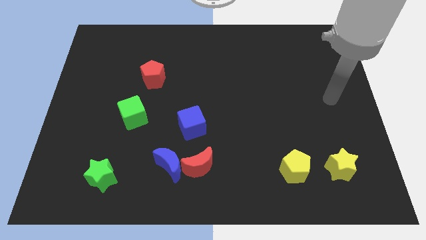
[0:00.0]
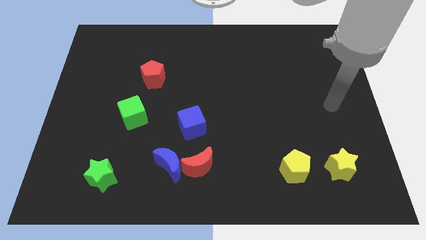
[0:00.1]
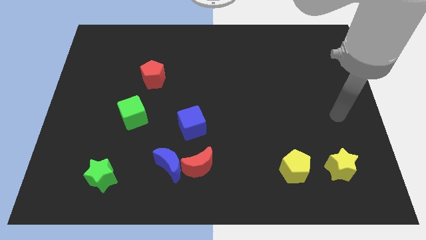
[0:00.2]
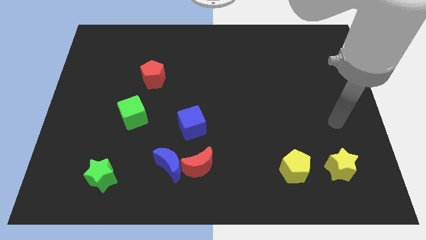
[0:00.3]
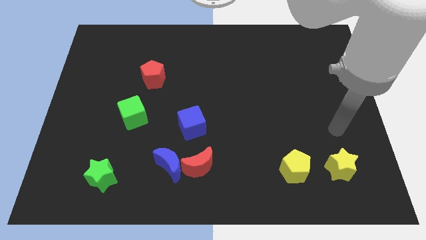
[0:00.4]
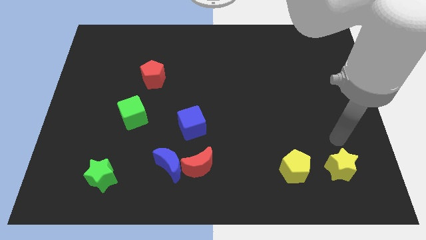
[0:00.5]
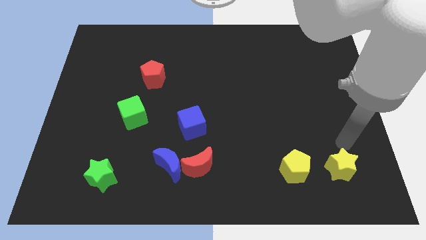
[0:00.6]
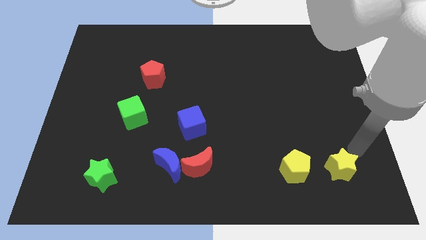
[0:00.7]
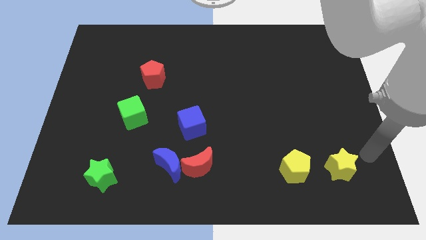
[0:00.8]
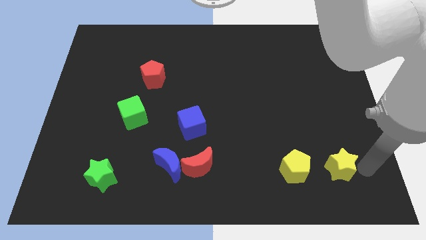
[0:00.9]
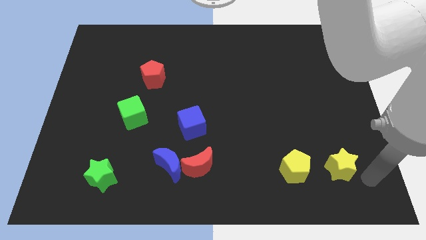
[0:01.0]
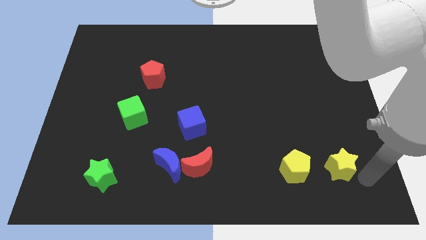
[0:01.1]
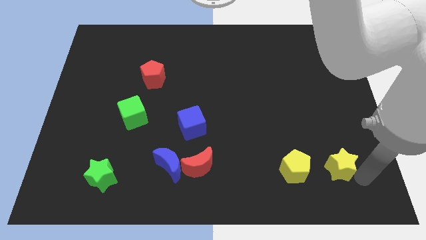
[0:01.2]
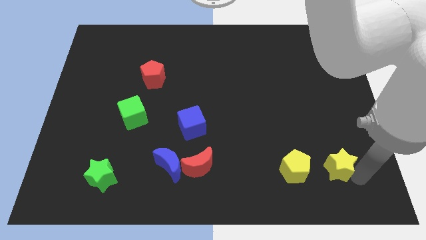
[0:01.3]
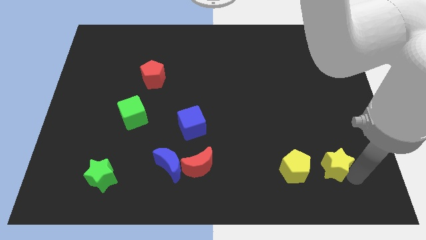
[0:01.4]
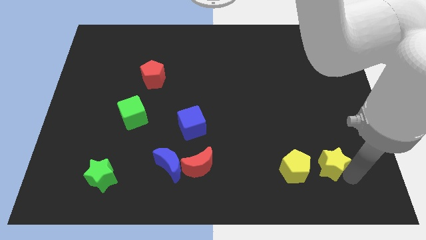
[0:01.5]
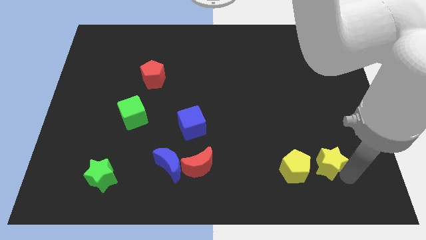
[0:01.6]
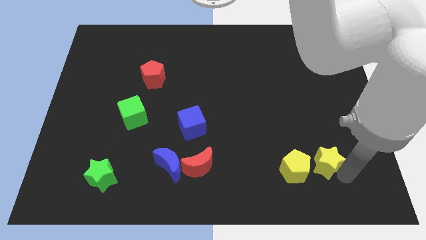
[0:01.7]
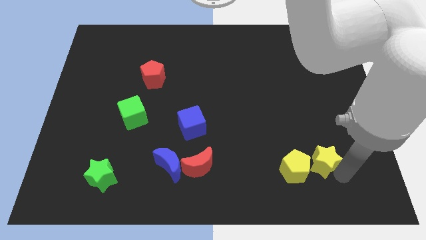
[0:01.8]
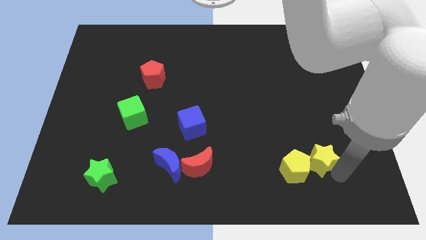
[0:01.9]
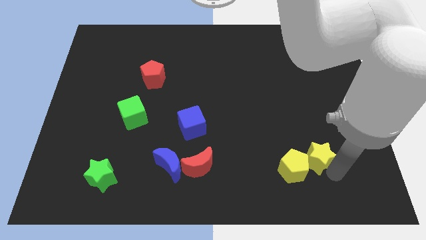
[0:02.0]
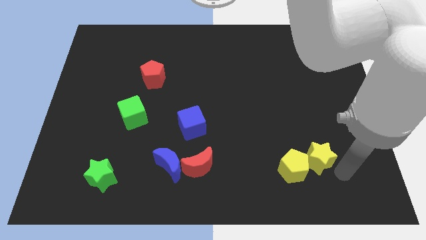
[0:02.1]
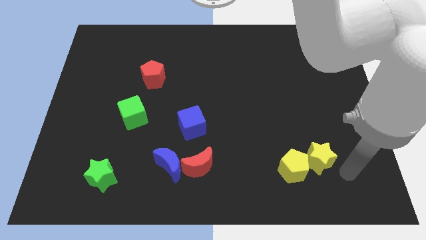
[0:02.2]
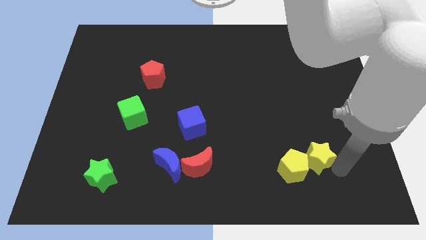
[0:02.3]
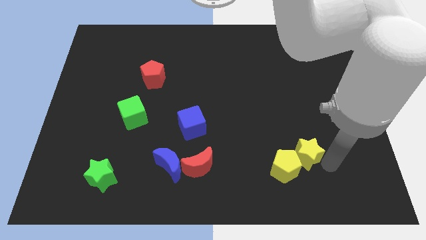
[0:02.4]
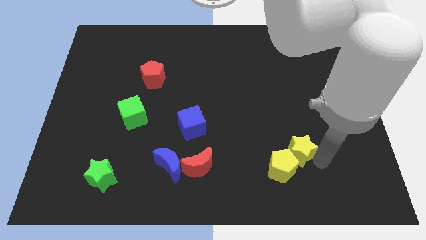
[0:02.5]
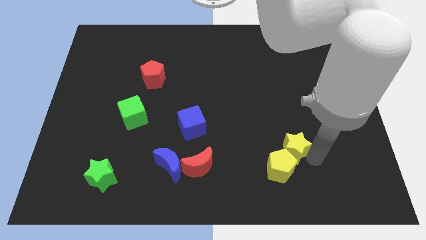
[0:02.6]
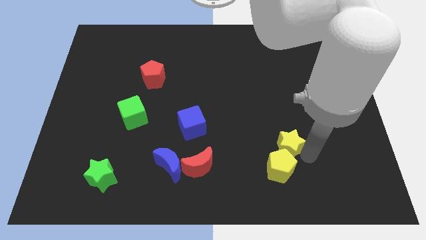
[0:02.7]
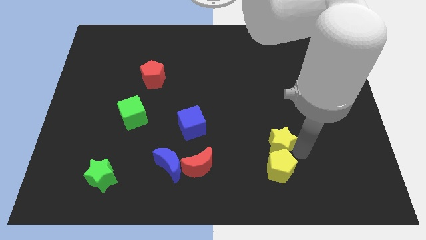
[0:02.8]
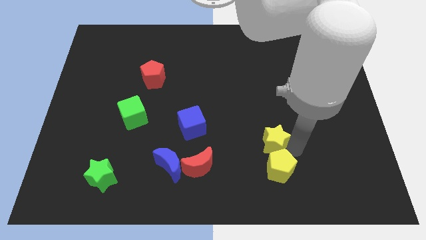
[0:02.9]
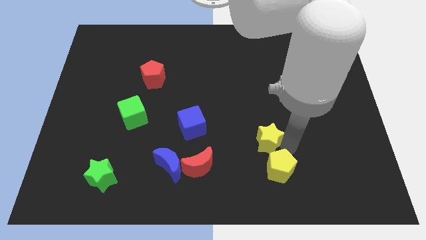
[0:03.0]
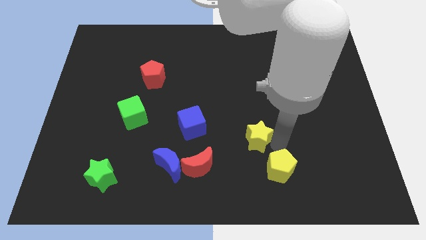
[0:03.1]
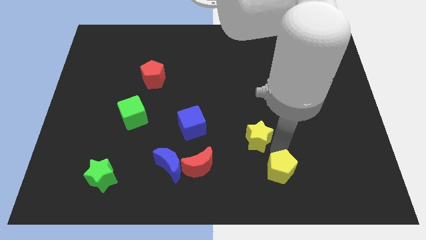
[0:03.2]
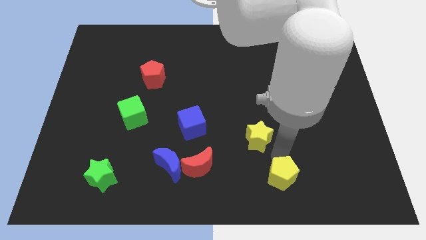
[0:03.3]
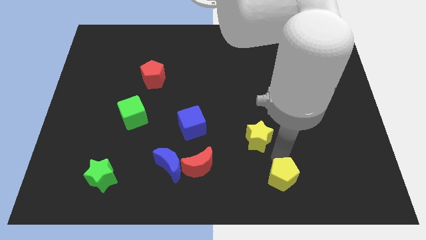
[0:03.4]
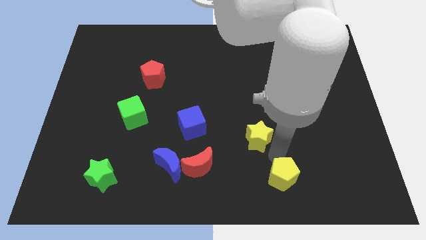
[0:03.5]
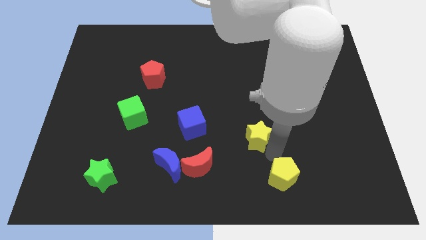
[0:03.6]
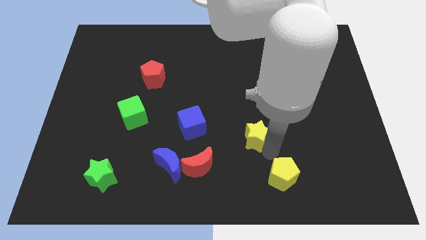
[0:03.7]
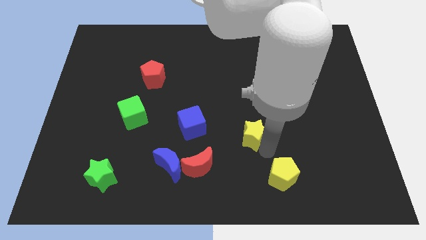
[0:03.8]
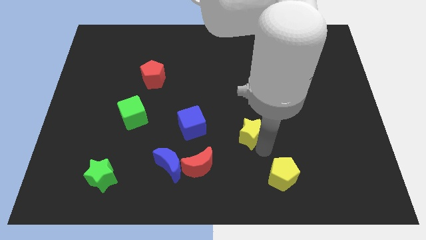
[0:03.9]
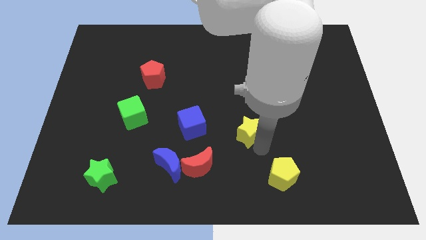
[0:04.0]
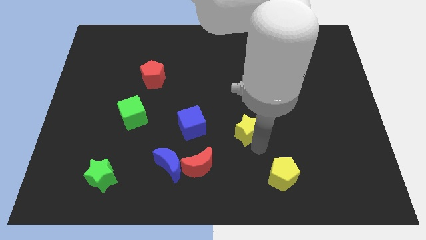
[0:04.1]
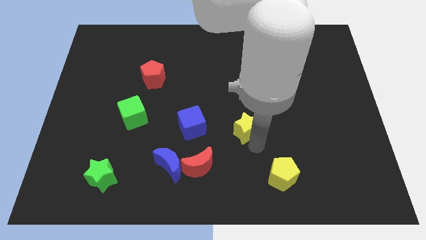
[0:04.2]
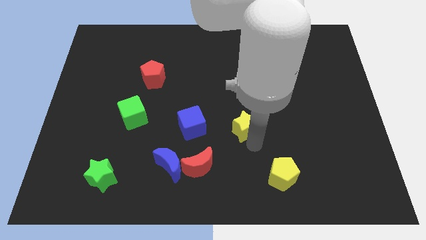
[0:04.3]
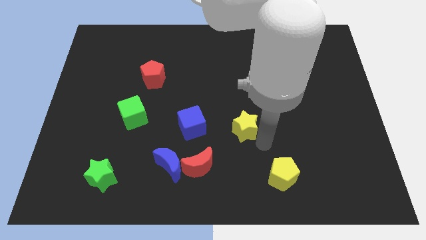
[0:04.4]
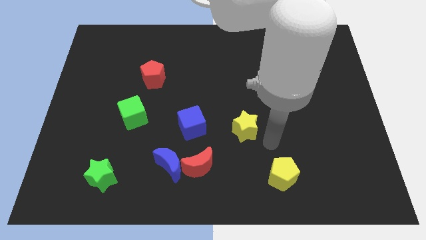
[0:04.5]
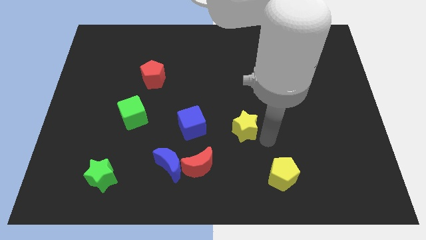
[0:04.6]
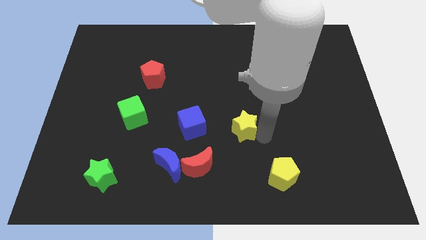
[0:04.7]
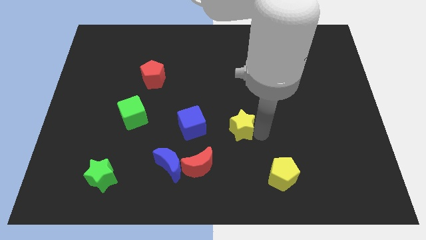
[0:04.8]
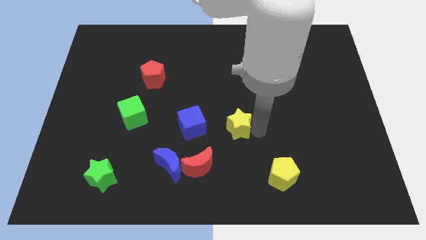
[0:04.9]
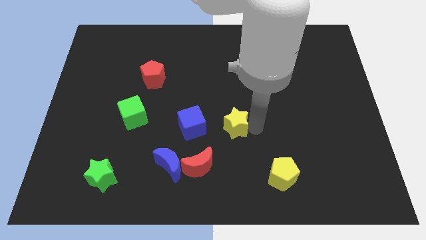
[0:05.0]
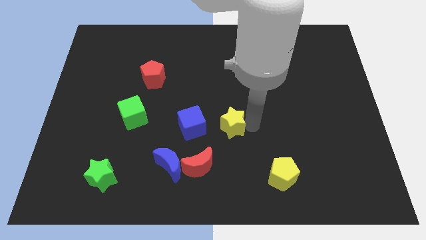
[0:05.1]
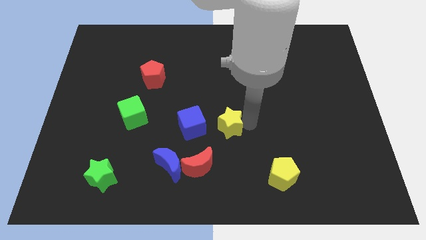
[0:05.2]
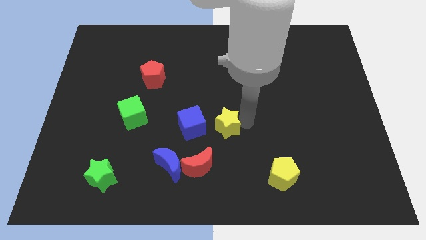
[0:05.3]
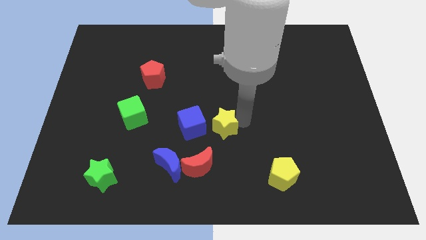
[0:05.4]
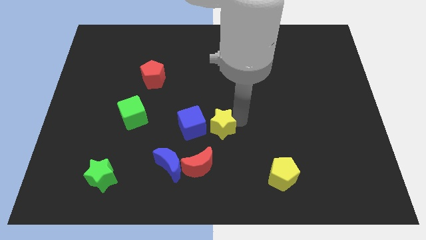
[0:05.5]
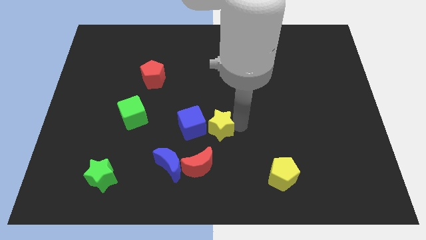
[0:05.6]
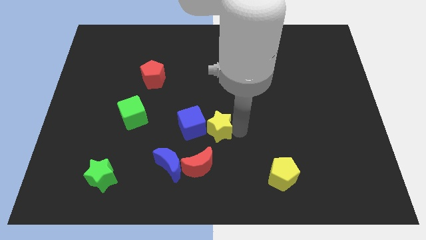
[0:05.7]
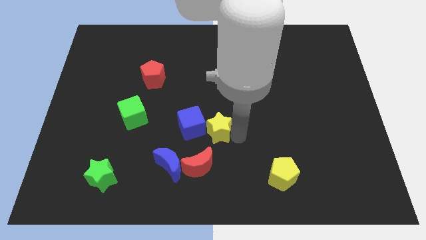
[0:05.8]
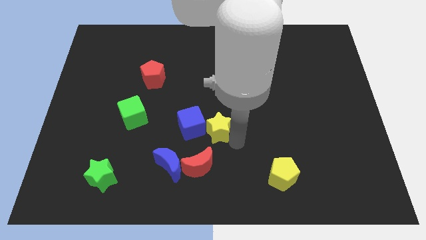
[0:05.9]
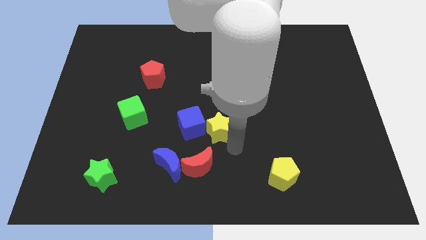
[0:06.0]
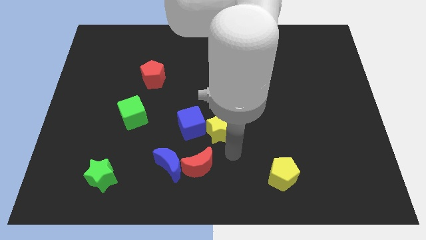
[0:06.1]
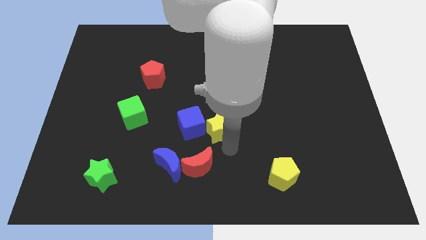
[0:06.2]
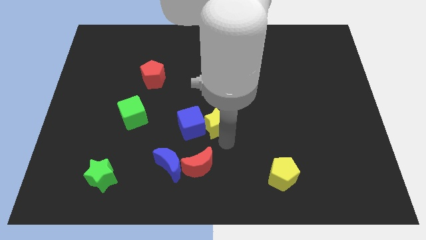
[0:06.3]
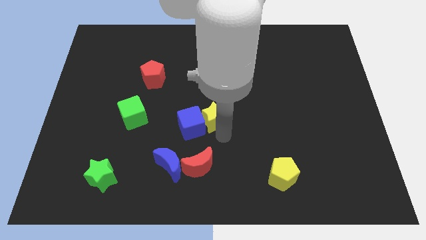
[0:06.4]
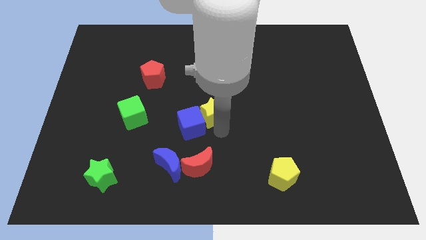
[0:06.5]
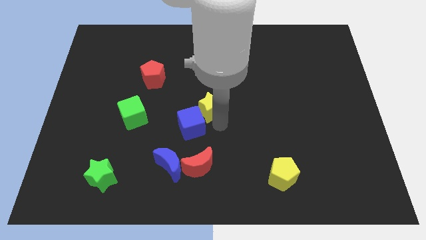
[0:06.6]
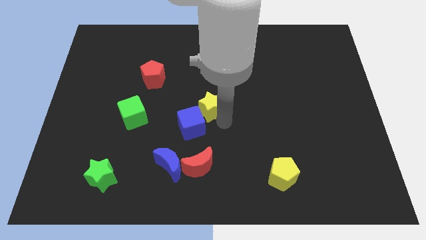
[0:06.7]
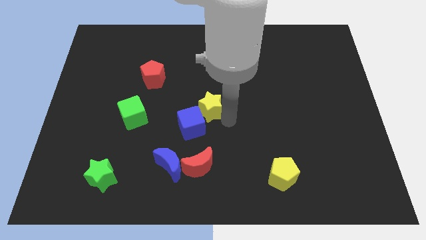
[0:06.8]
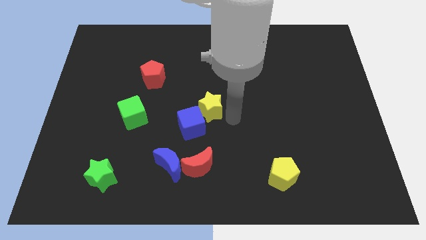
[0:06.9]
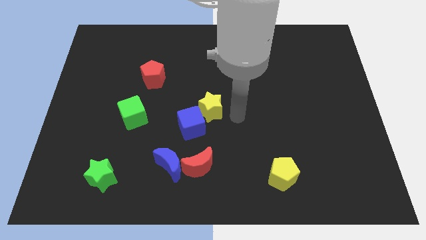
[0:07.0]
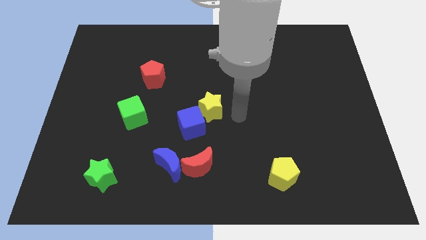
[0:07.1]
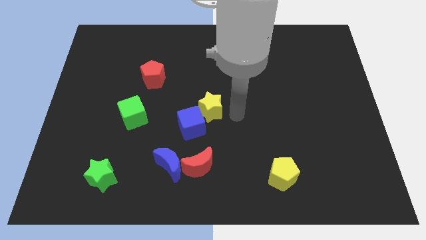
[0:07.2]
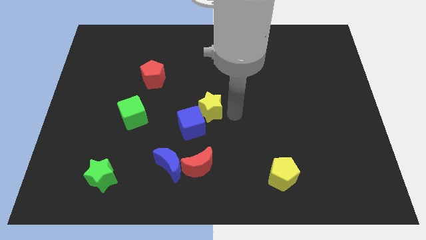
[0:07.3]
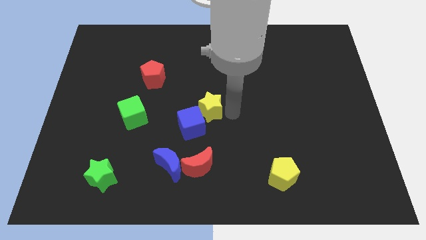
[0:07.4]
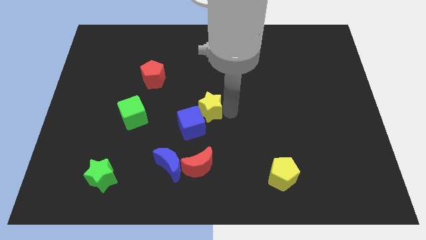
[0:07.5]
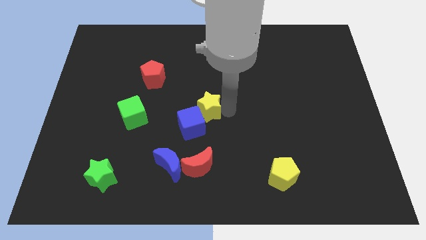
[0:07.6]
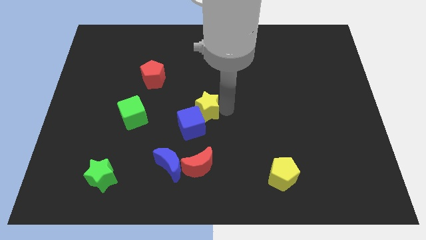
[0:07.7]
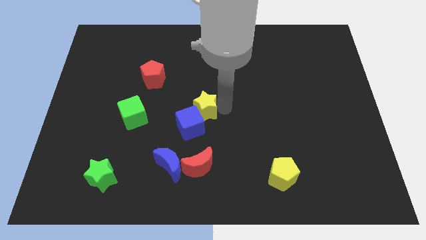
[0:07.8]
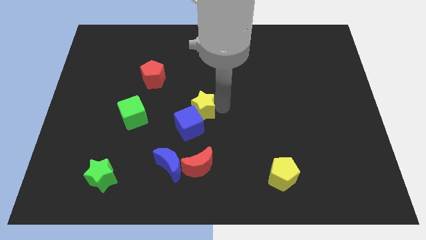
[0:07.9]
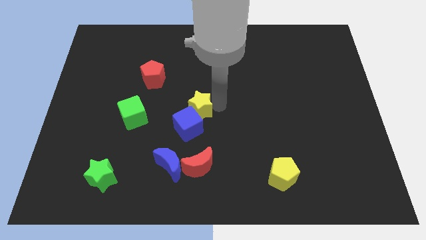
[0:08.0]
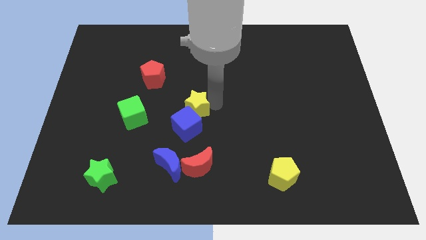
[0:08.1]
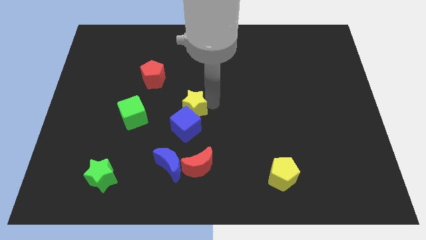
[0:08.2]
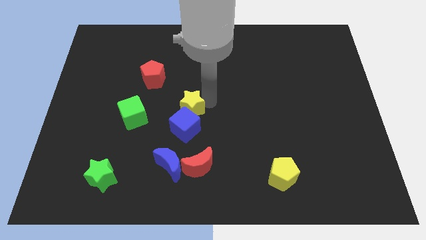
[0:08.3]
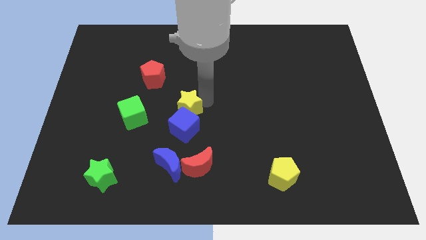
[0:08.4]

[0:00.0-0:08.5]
put the yellow star diagonally down and to the right of the red pentagon
